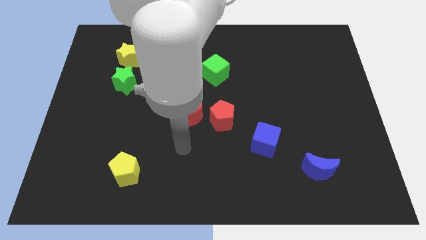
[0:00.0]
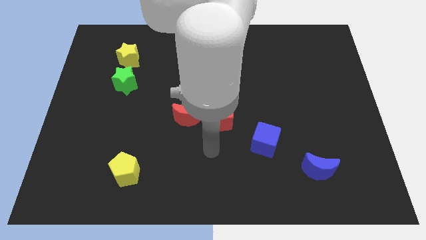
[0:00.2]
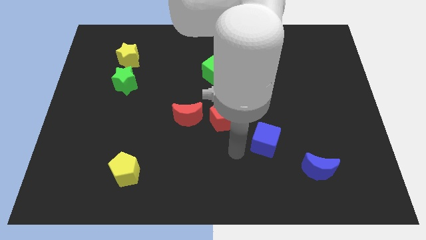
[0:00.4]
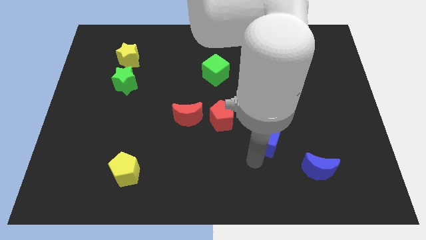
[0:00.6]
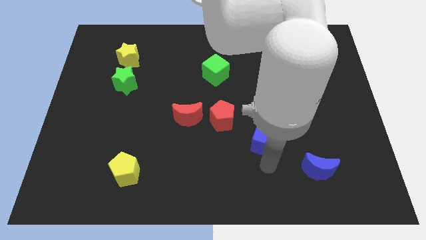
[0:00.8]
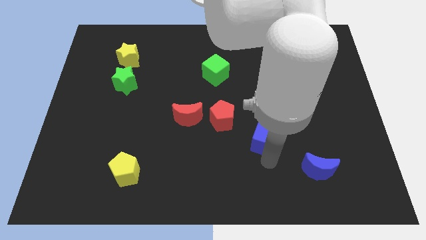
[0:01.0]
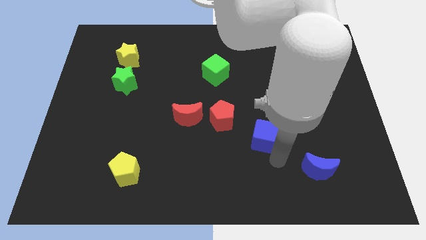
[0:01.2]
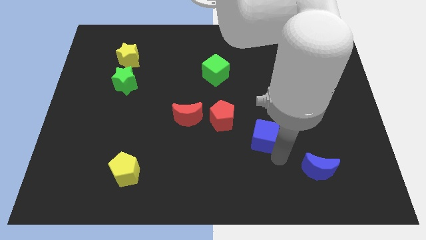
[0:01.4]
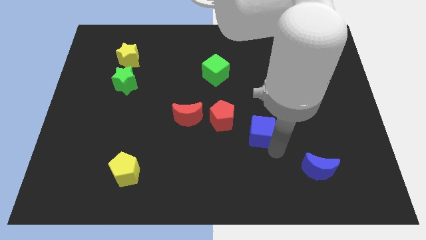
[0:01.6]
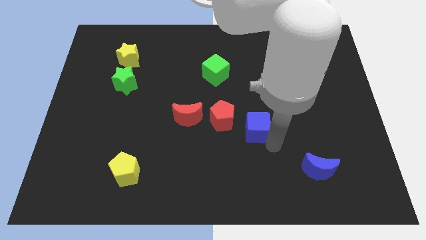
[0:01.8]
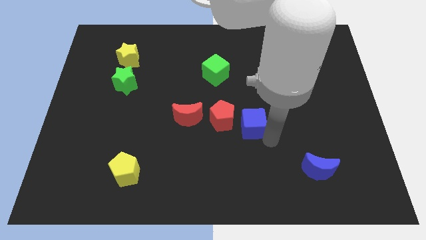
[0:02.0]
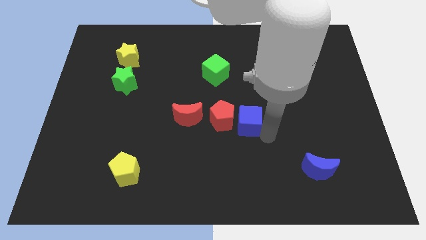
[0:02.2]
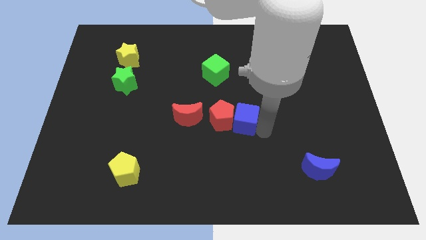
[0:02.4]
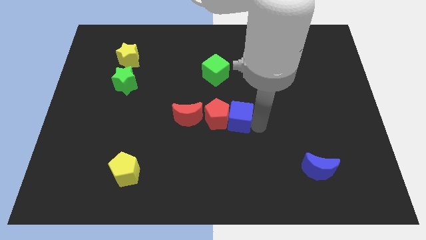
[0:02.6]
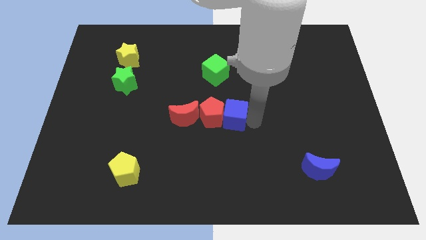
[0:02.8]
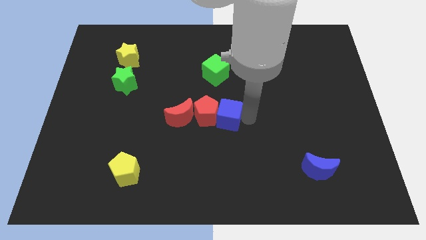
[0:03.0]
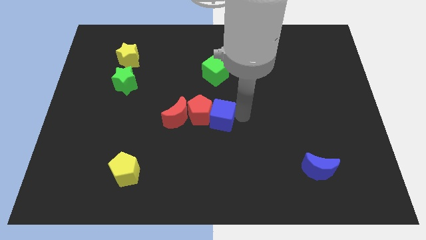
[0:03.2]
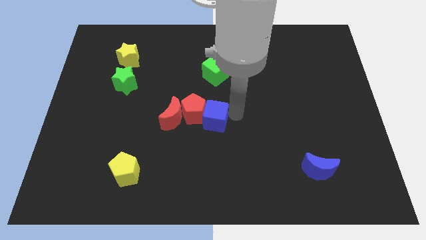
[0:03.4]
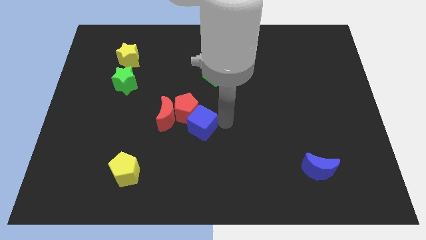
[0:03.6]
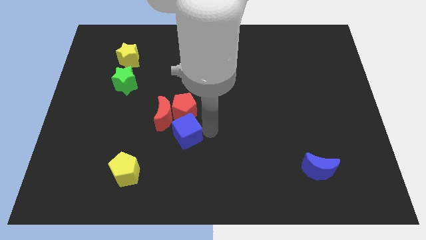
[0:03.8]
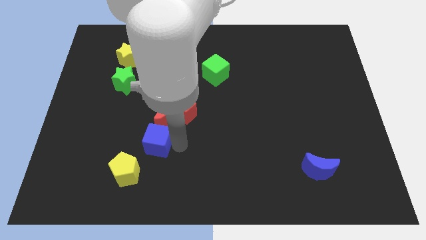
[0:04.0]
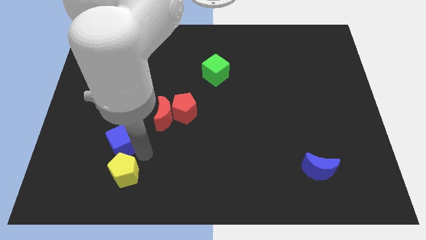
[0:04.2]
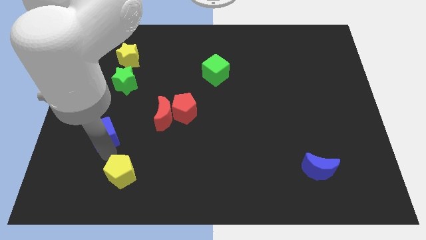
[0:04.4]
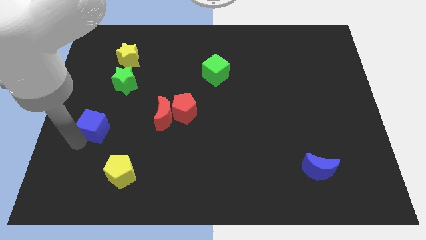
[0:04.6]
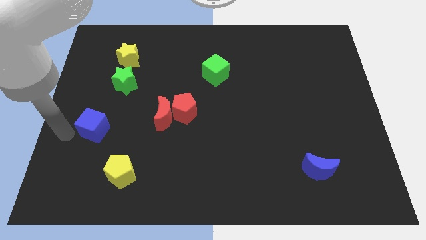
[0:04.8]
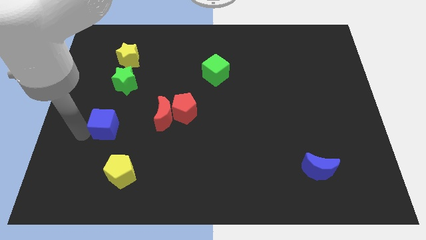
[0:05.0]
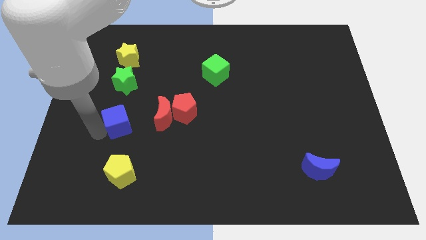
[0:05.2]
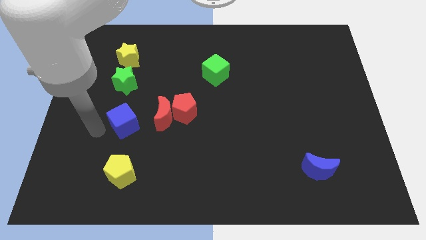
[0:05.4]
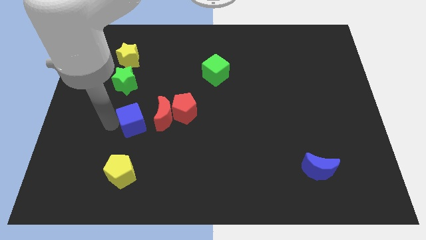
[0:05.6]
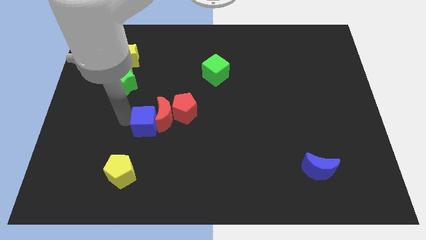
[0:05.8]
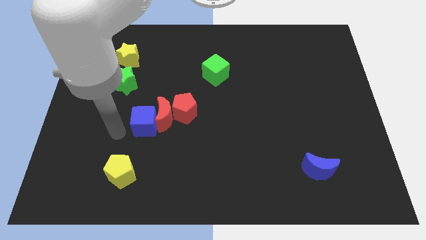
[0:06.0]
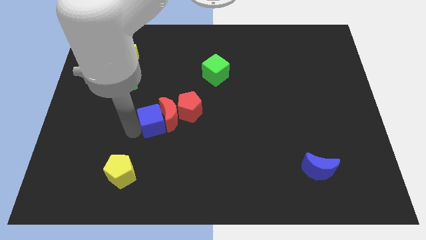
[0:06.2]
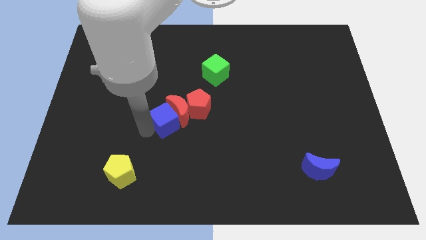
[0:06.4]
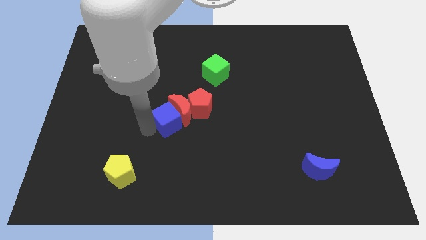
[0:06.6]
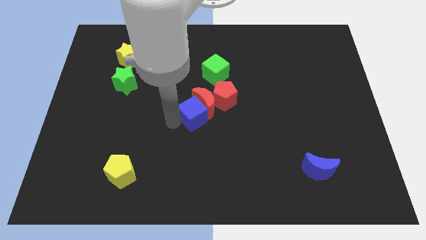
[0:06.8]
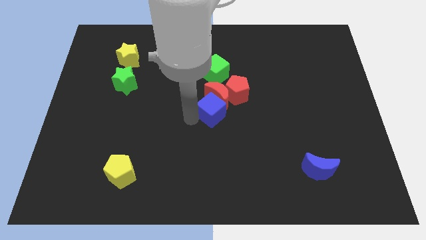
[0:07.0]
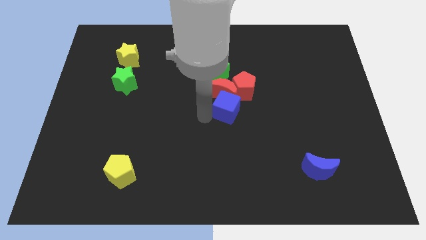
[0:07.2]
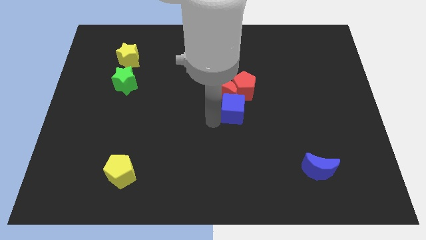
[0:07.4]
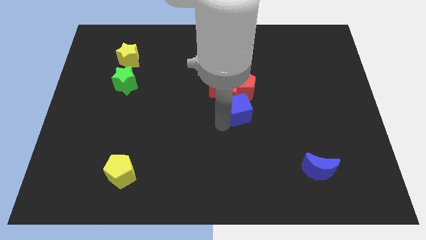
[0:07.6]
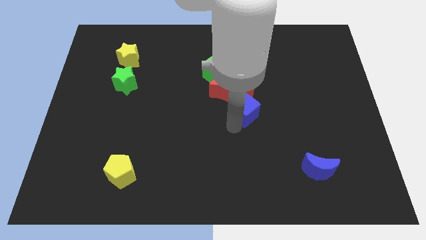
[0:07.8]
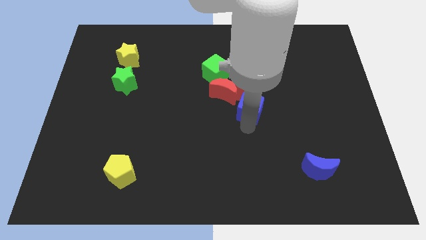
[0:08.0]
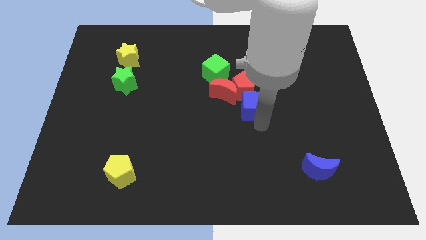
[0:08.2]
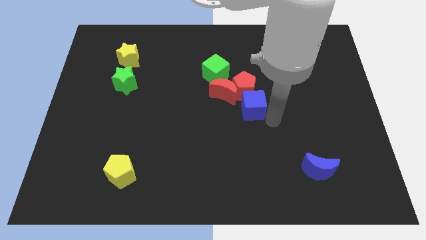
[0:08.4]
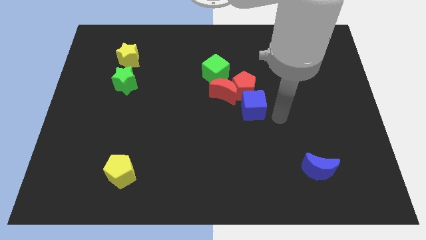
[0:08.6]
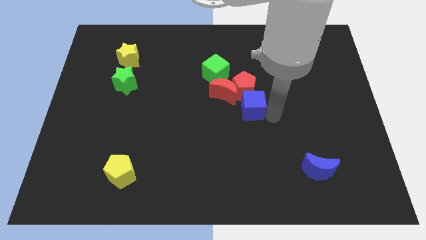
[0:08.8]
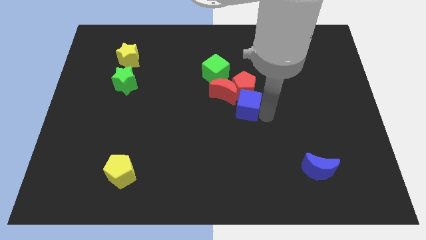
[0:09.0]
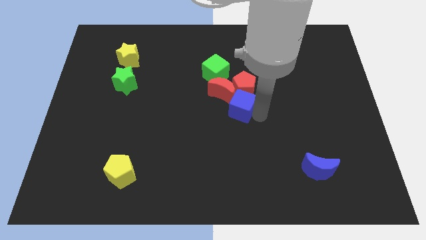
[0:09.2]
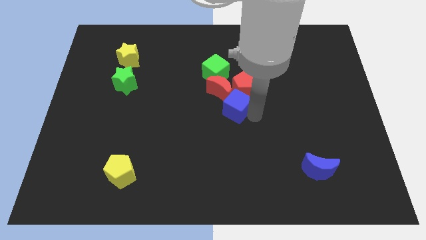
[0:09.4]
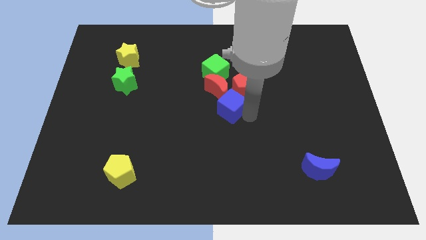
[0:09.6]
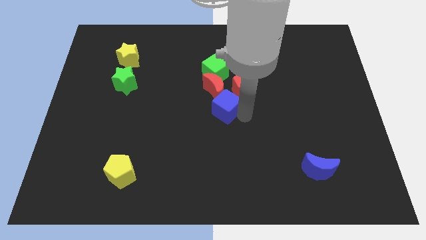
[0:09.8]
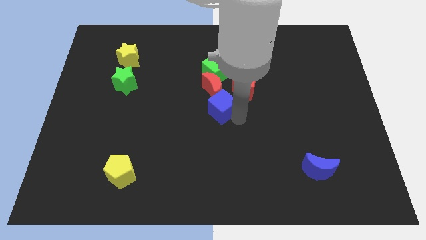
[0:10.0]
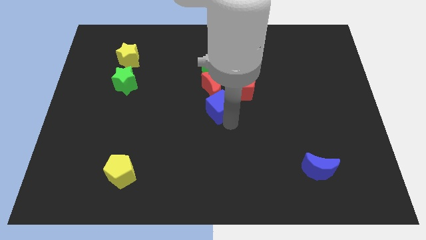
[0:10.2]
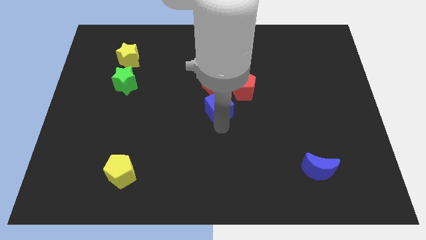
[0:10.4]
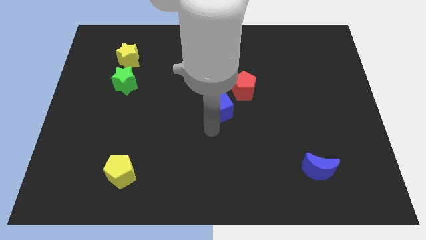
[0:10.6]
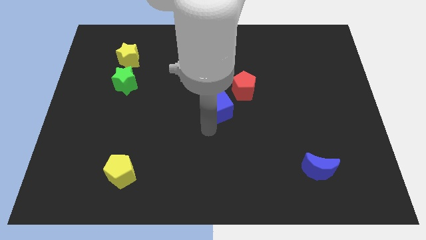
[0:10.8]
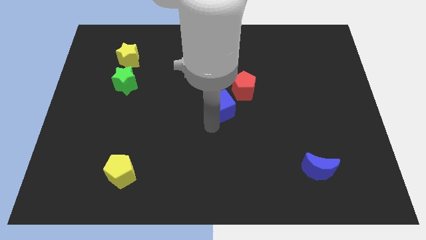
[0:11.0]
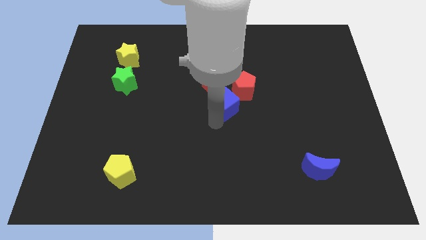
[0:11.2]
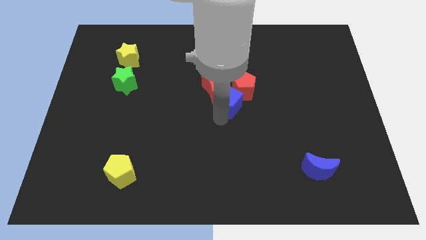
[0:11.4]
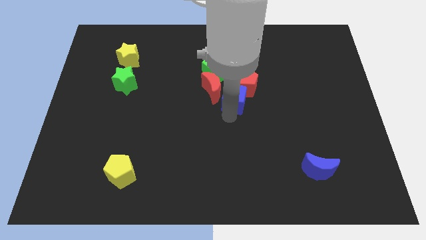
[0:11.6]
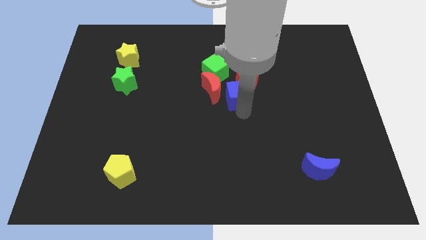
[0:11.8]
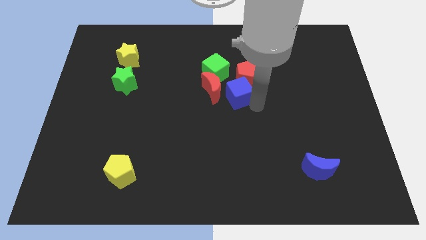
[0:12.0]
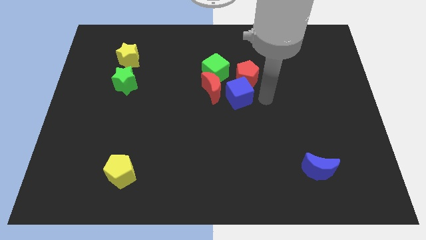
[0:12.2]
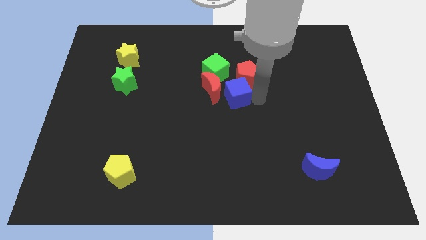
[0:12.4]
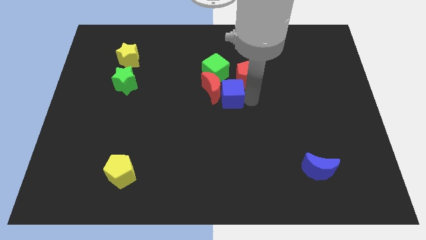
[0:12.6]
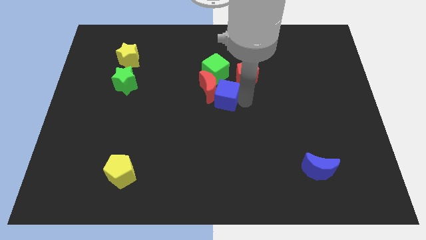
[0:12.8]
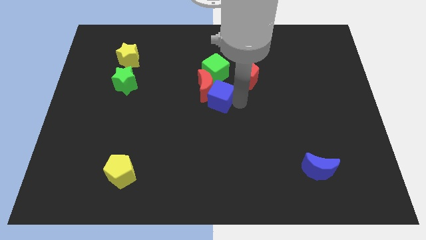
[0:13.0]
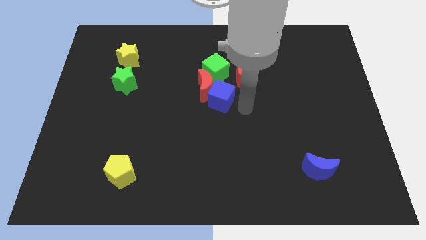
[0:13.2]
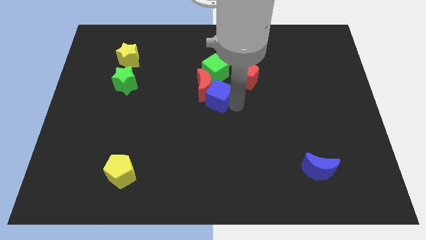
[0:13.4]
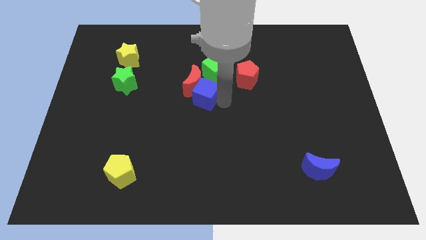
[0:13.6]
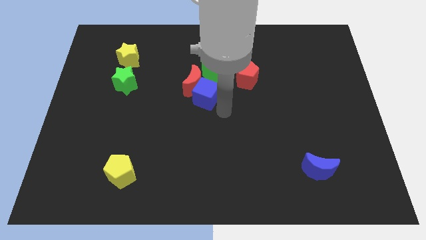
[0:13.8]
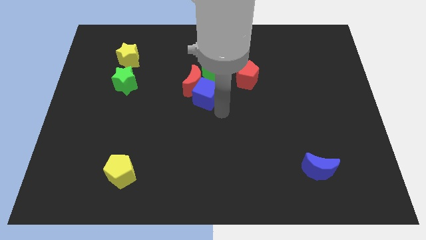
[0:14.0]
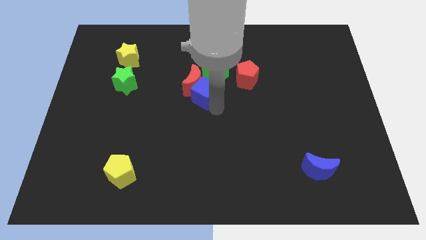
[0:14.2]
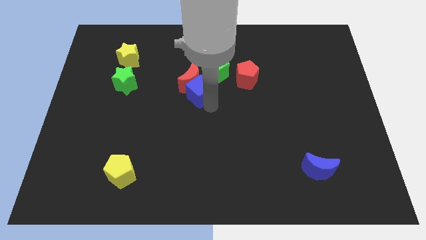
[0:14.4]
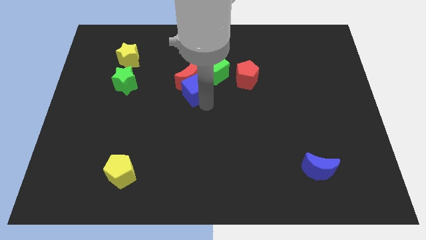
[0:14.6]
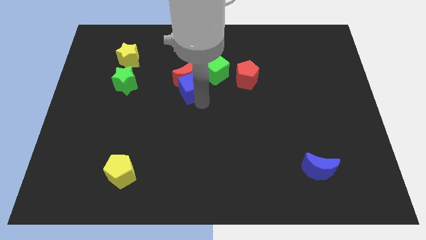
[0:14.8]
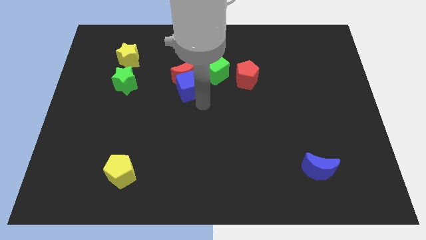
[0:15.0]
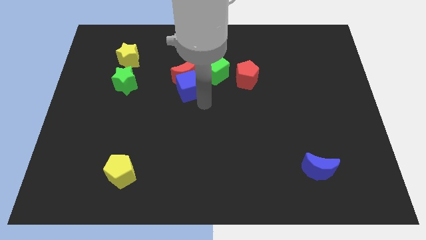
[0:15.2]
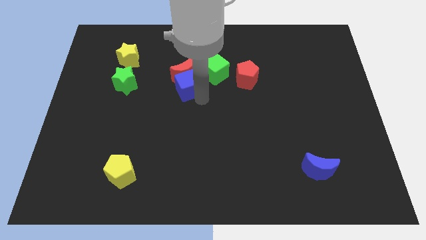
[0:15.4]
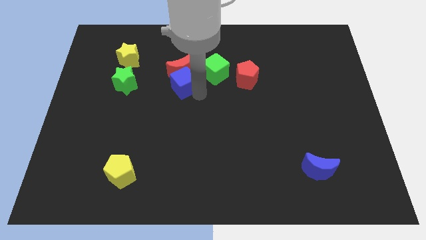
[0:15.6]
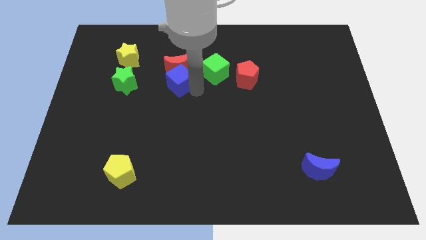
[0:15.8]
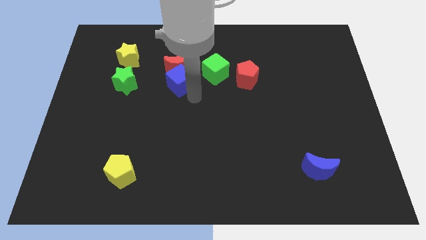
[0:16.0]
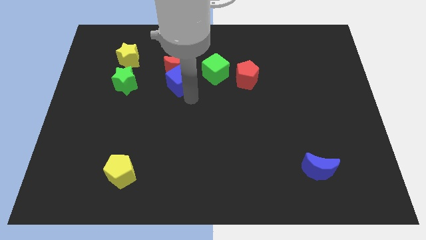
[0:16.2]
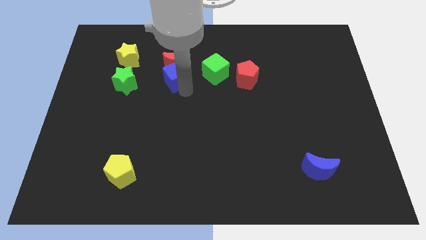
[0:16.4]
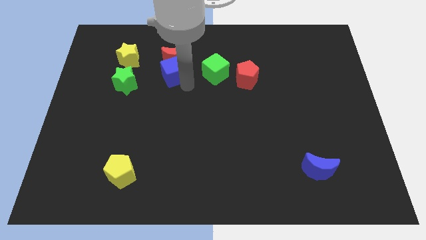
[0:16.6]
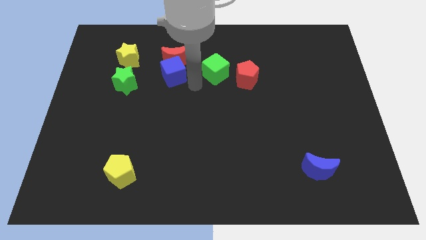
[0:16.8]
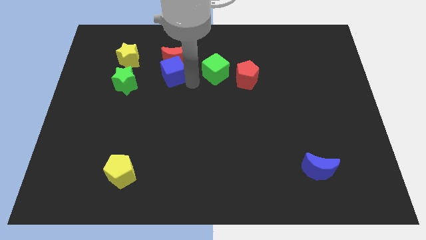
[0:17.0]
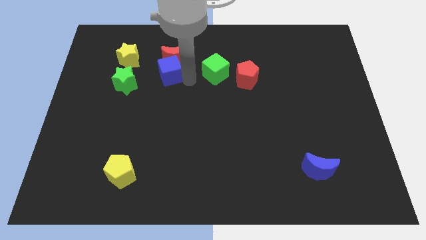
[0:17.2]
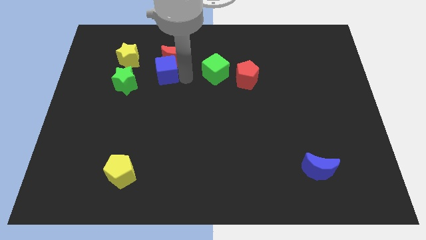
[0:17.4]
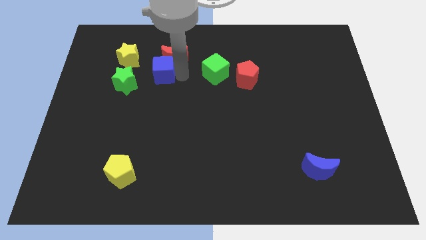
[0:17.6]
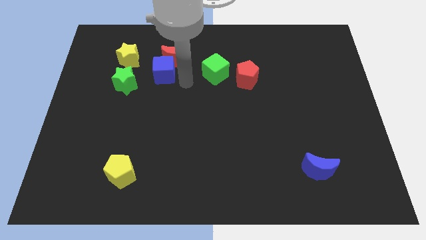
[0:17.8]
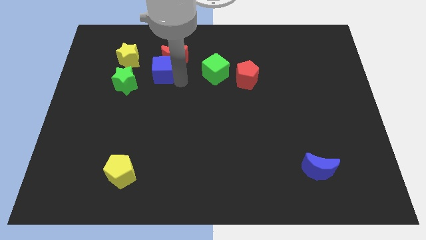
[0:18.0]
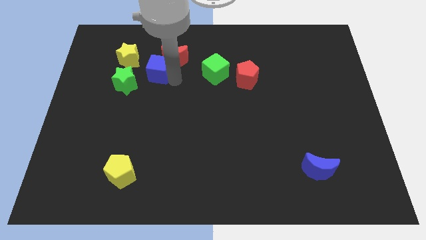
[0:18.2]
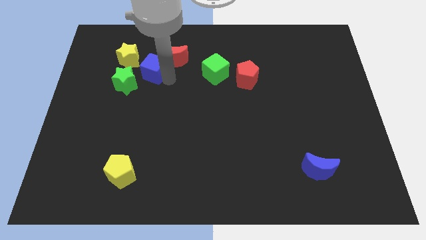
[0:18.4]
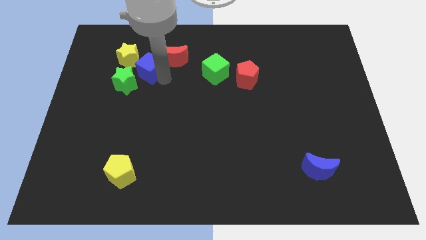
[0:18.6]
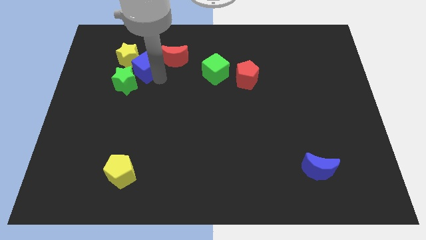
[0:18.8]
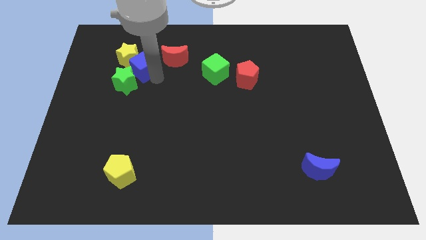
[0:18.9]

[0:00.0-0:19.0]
push the blue cube next to the yellow star
